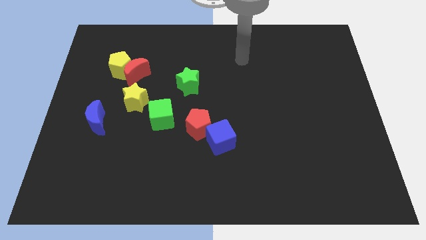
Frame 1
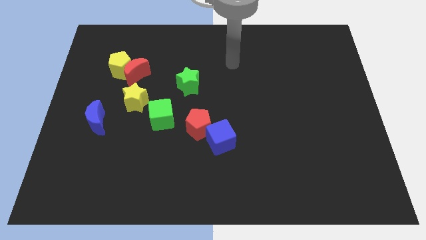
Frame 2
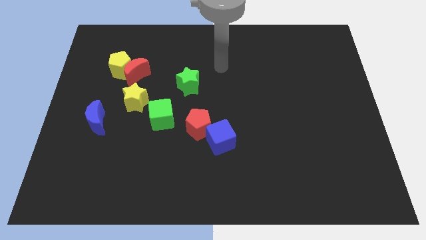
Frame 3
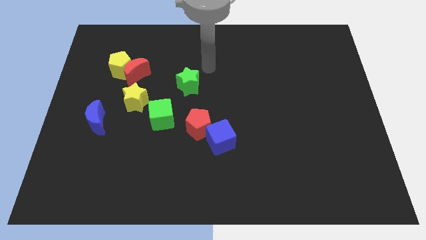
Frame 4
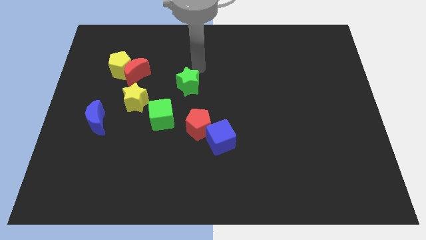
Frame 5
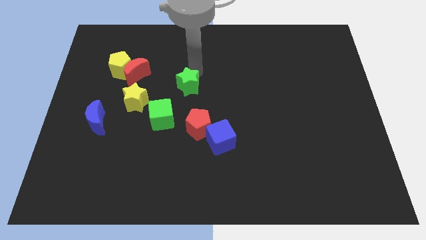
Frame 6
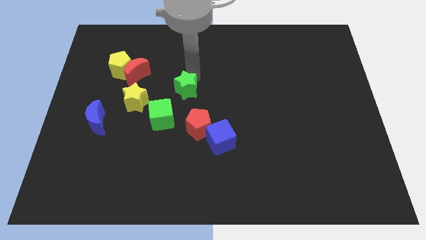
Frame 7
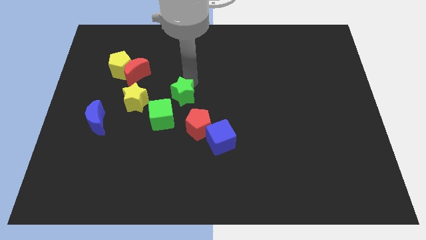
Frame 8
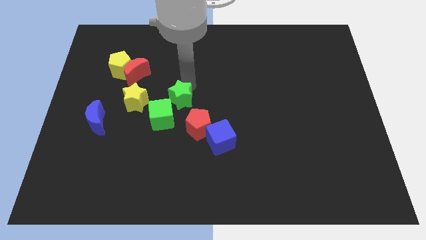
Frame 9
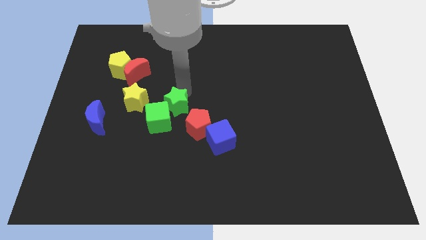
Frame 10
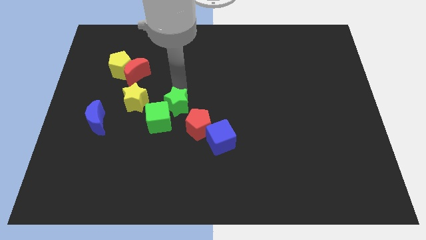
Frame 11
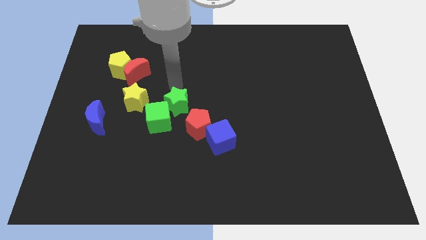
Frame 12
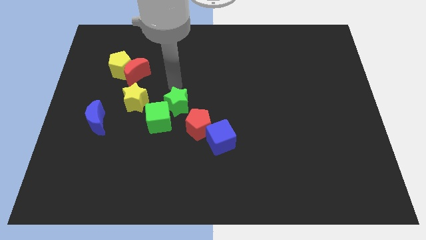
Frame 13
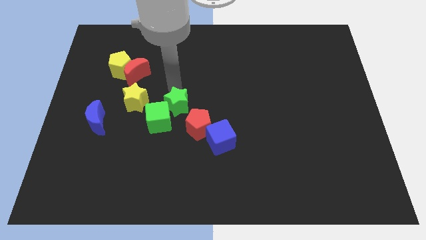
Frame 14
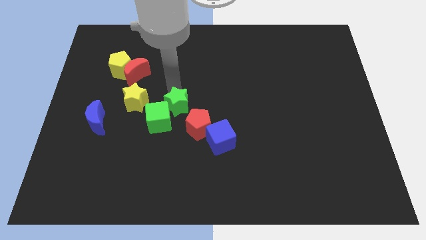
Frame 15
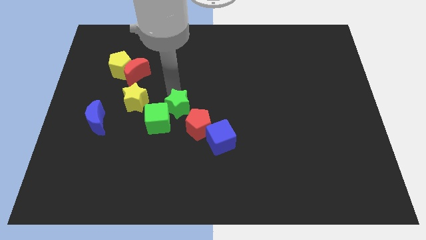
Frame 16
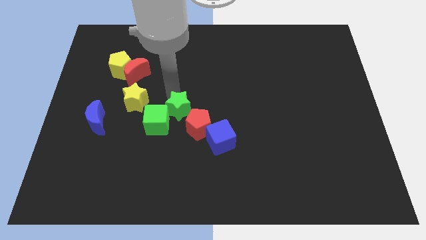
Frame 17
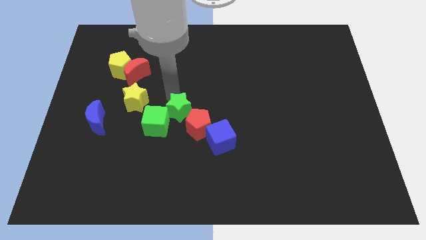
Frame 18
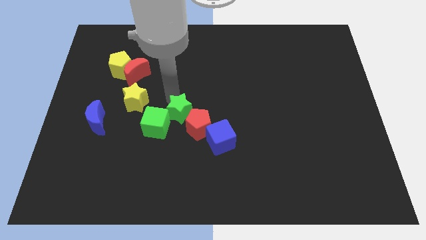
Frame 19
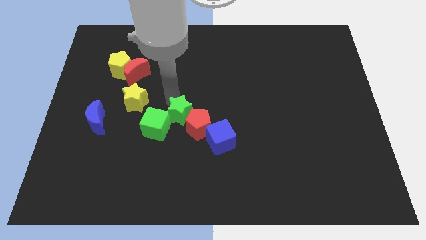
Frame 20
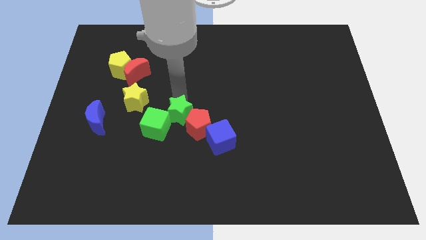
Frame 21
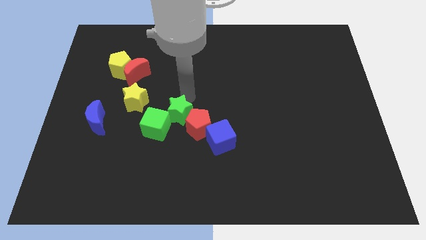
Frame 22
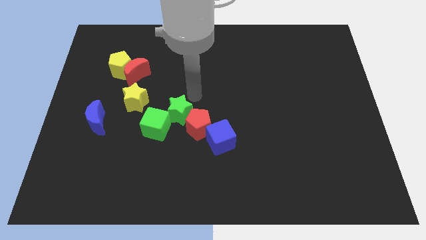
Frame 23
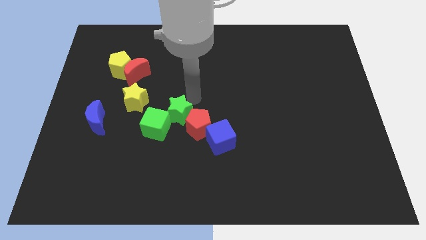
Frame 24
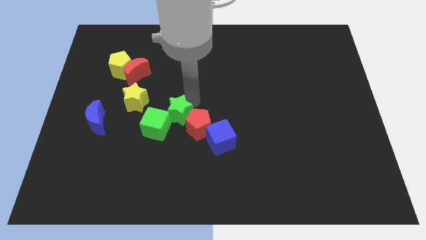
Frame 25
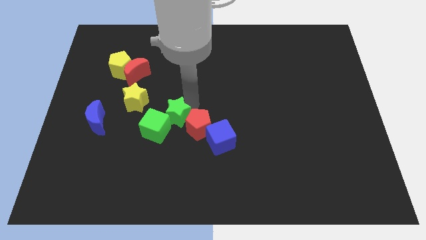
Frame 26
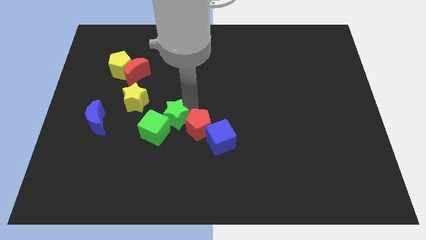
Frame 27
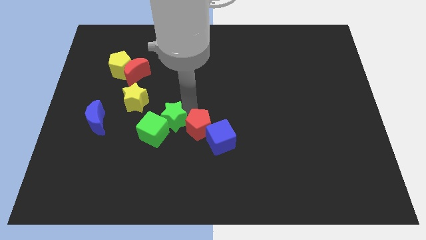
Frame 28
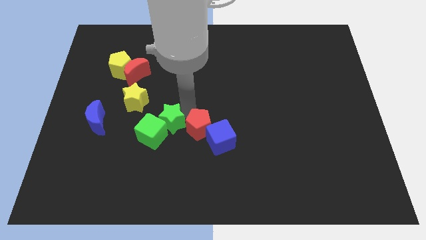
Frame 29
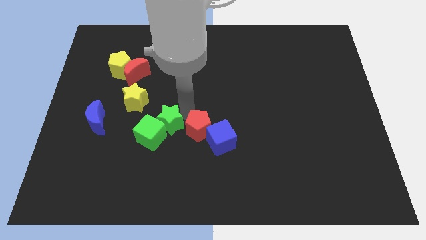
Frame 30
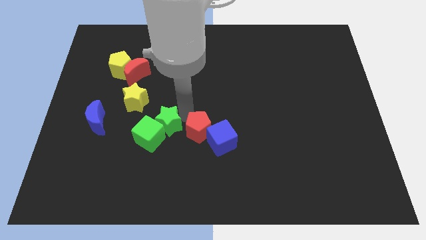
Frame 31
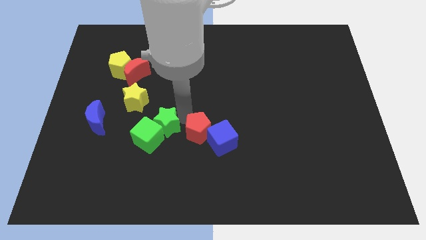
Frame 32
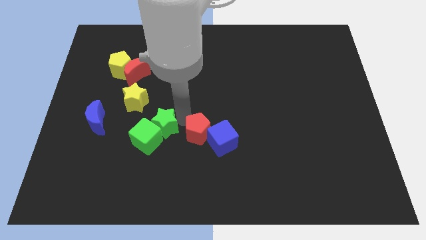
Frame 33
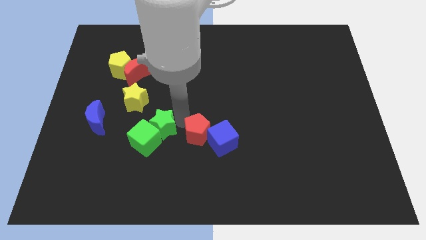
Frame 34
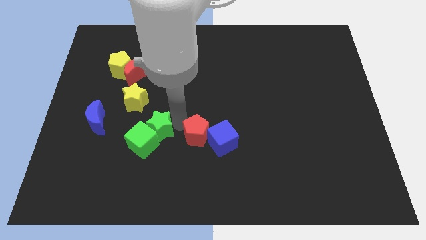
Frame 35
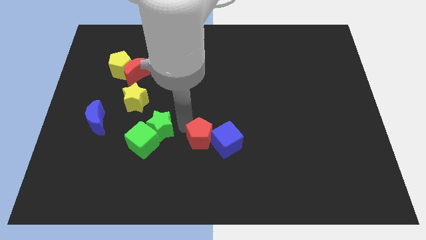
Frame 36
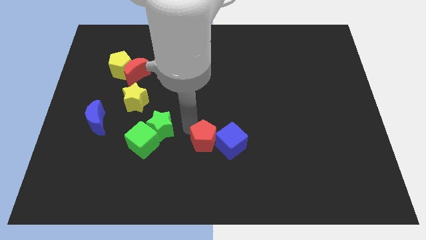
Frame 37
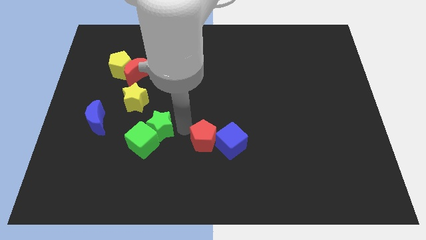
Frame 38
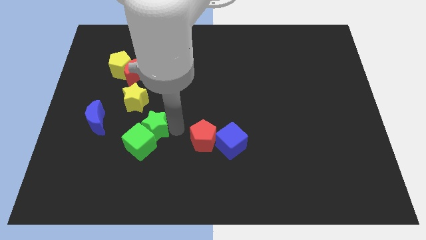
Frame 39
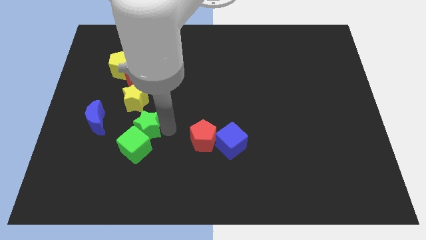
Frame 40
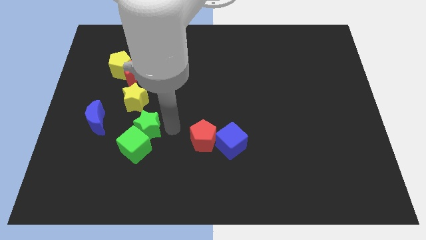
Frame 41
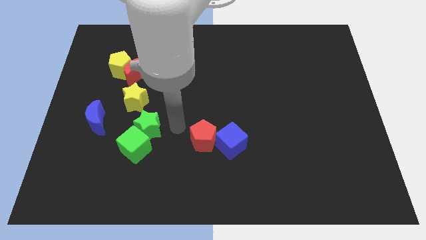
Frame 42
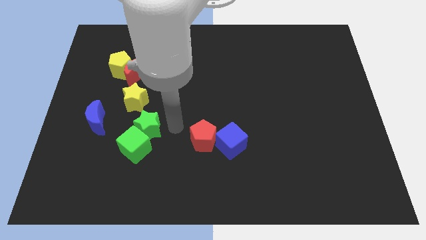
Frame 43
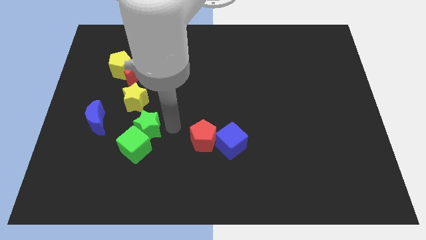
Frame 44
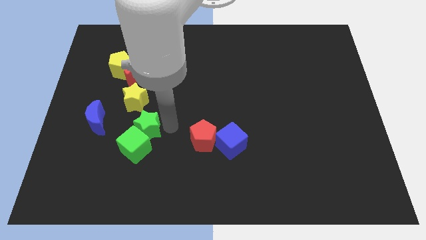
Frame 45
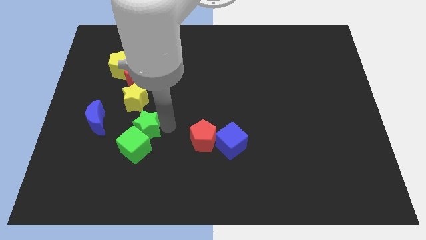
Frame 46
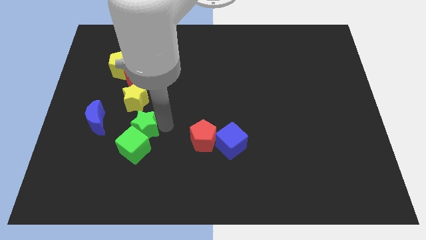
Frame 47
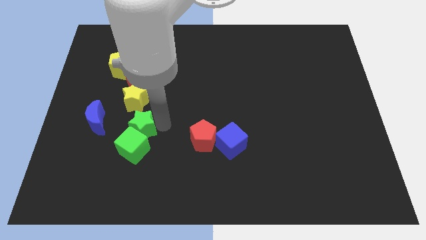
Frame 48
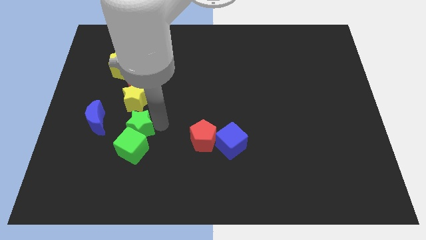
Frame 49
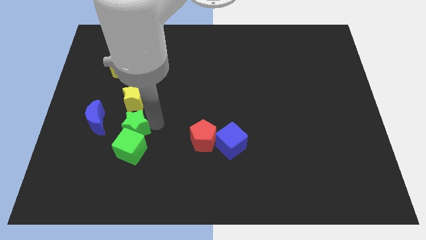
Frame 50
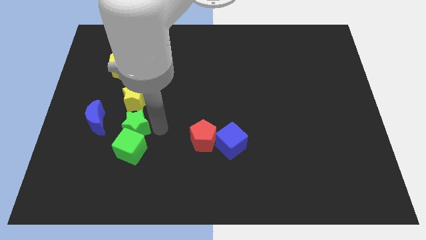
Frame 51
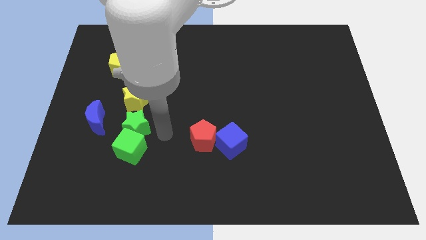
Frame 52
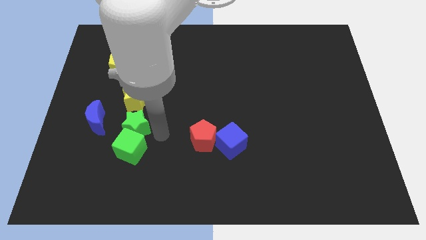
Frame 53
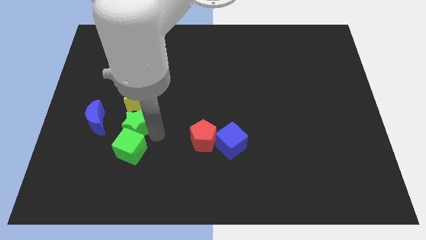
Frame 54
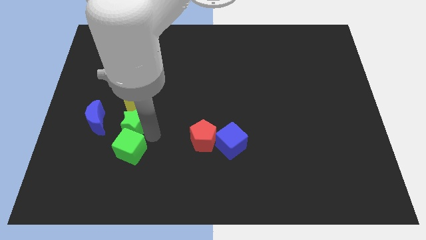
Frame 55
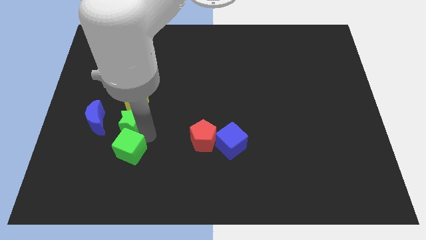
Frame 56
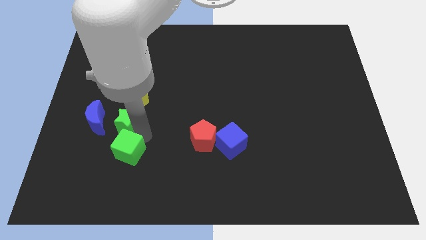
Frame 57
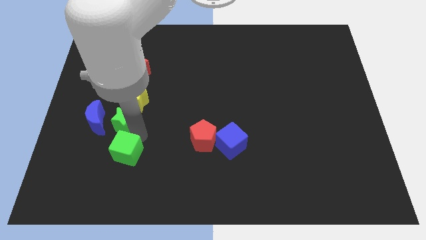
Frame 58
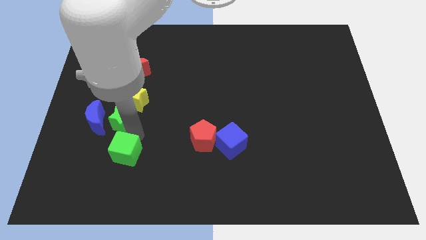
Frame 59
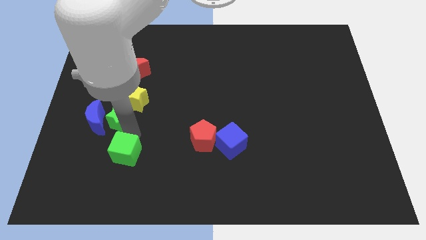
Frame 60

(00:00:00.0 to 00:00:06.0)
move the green star close to the blue moon
